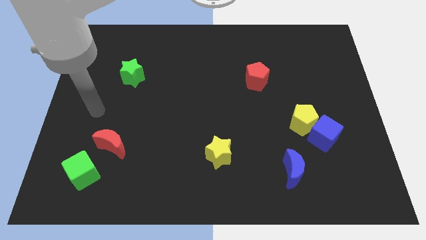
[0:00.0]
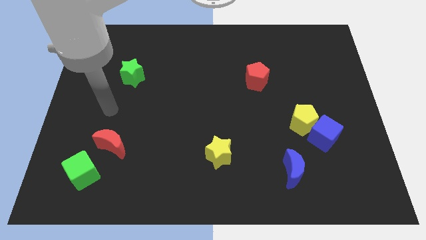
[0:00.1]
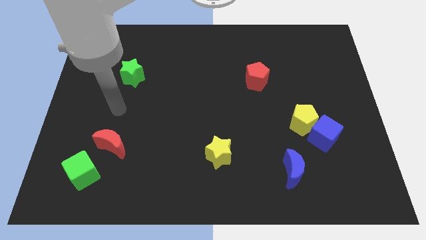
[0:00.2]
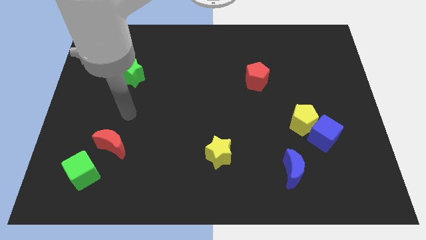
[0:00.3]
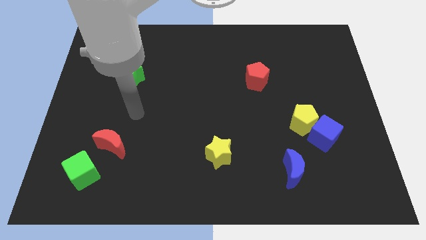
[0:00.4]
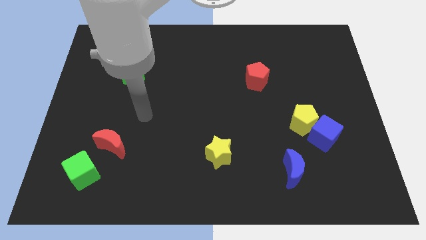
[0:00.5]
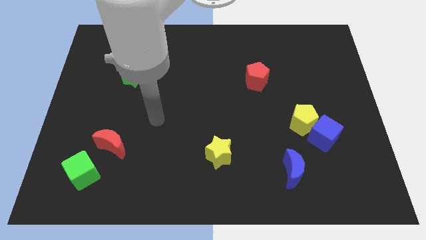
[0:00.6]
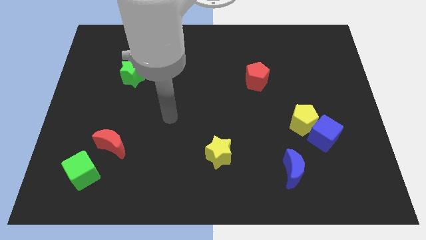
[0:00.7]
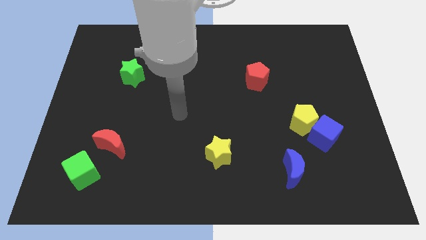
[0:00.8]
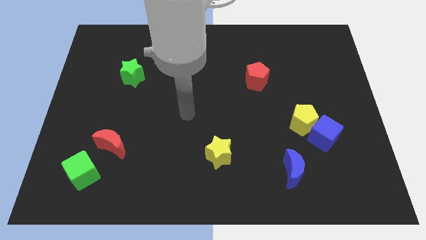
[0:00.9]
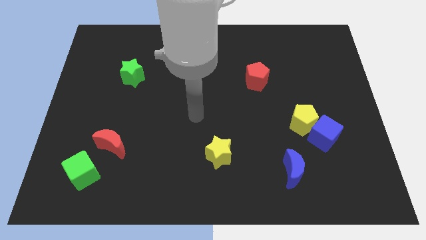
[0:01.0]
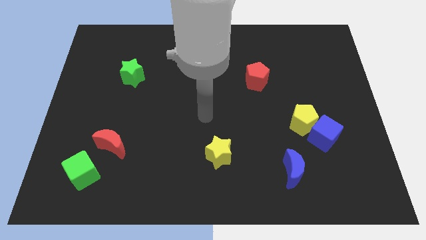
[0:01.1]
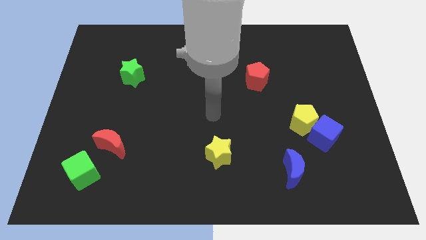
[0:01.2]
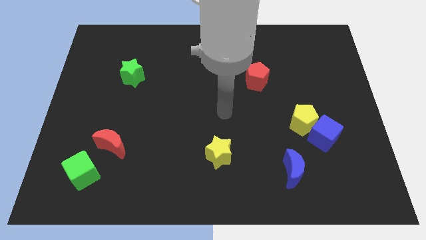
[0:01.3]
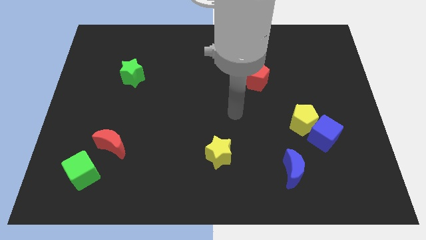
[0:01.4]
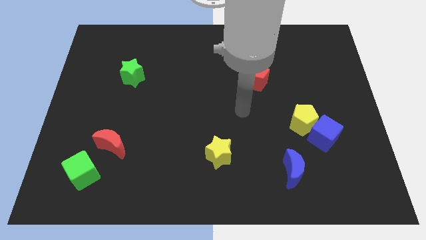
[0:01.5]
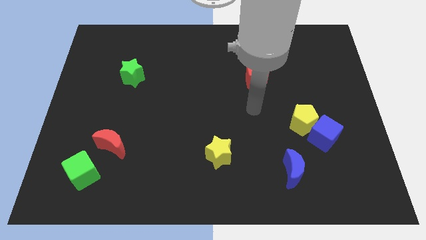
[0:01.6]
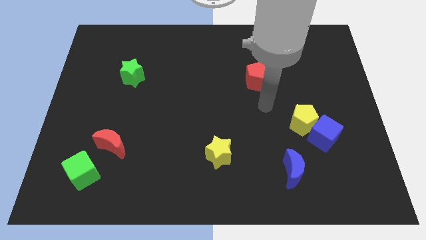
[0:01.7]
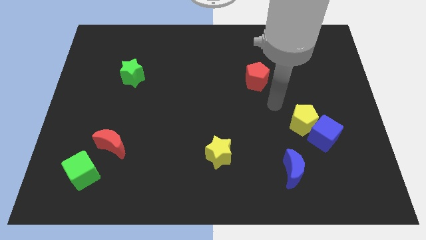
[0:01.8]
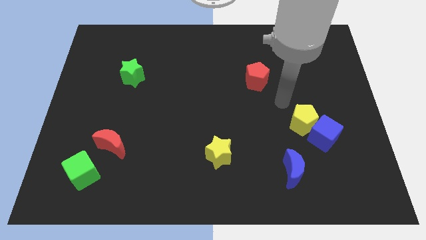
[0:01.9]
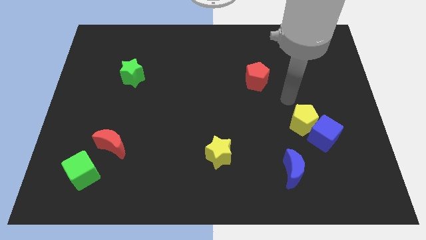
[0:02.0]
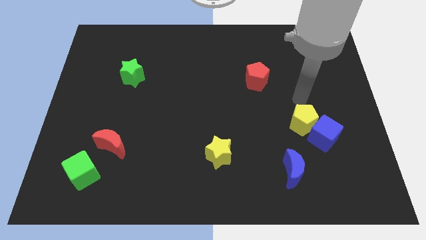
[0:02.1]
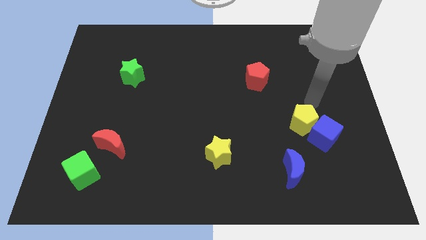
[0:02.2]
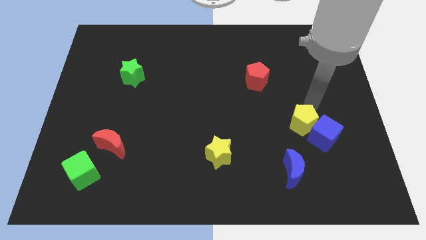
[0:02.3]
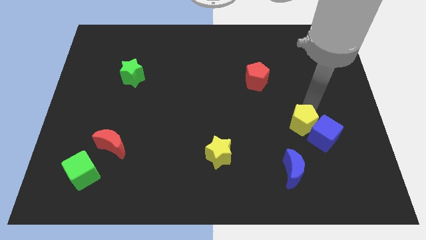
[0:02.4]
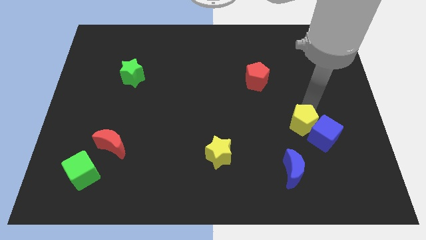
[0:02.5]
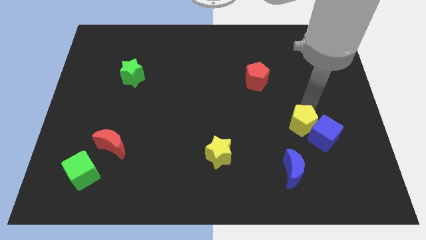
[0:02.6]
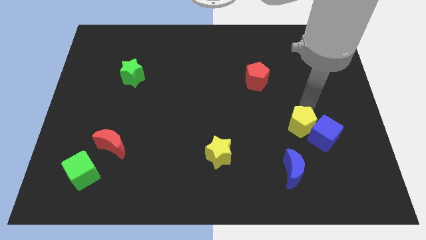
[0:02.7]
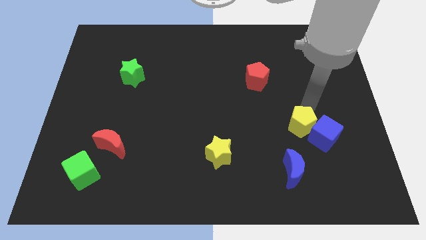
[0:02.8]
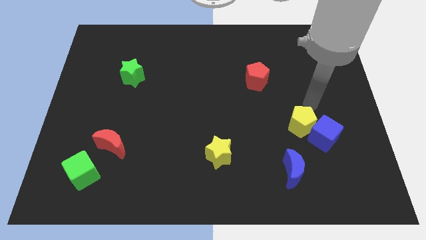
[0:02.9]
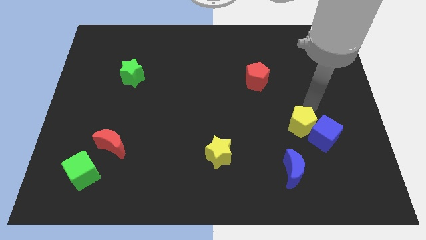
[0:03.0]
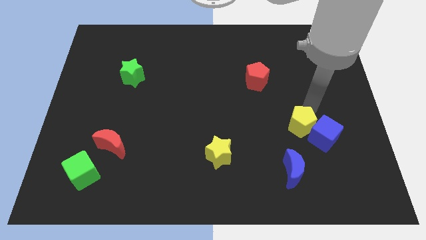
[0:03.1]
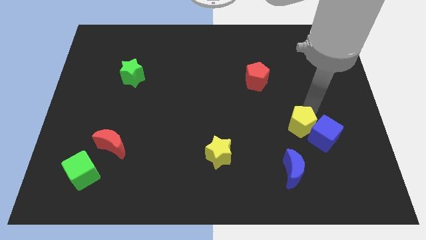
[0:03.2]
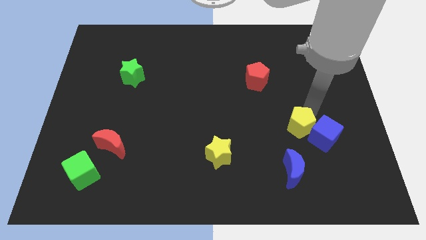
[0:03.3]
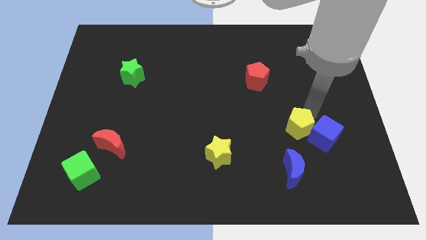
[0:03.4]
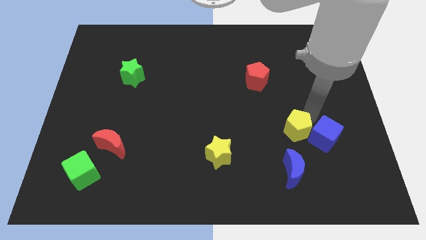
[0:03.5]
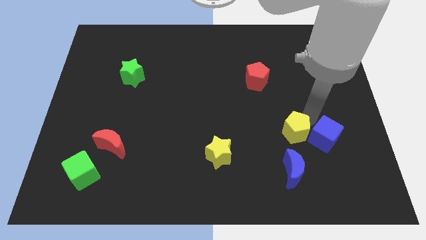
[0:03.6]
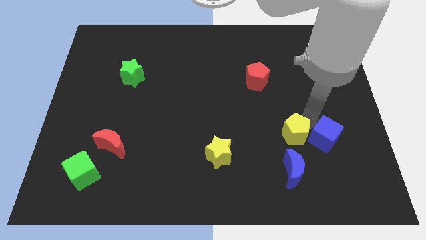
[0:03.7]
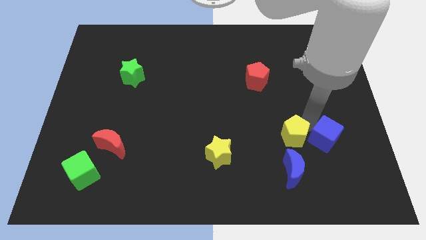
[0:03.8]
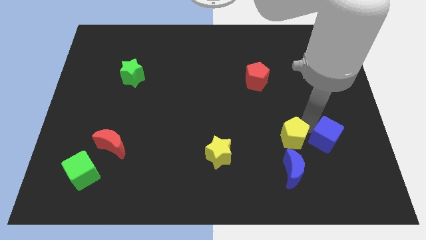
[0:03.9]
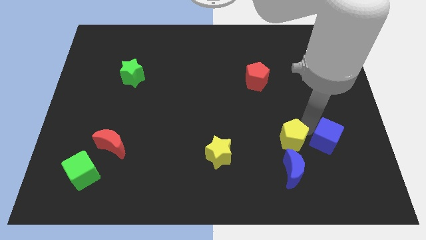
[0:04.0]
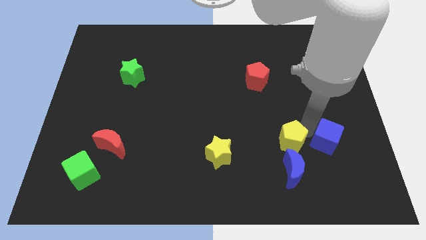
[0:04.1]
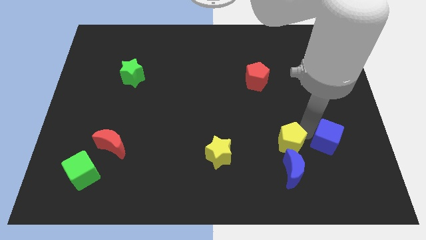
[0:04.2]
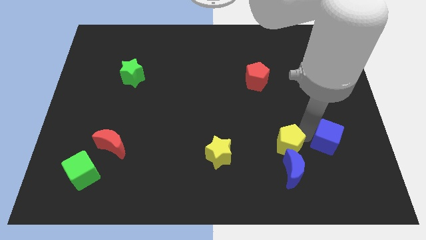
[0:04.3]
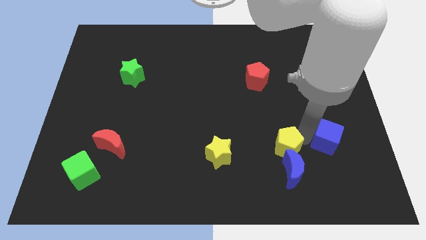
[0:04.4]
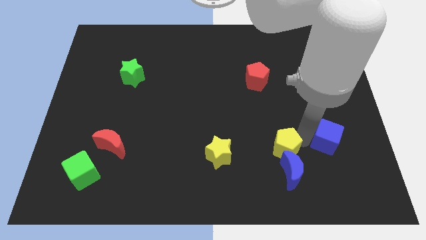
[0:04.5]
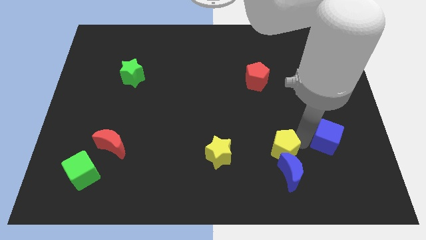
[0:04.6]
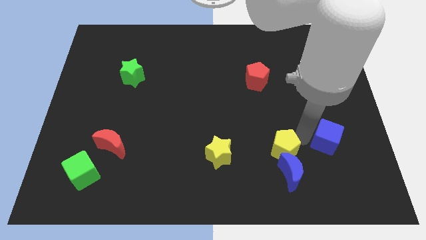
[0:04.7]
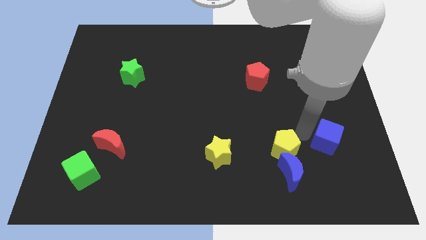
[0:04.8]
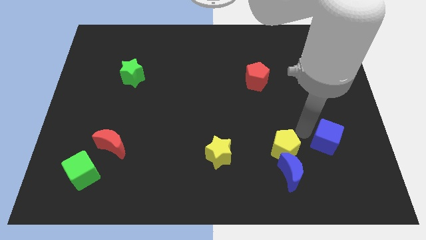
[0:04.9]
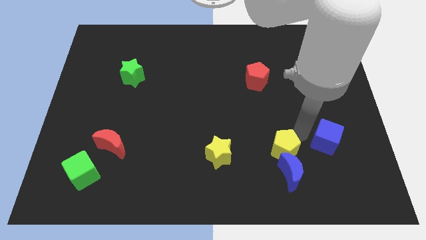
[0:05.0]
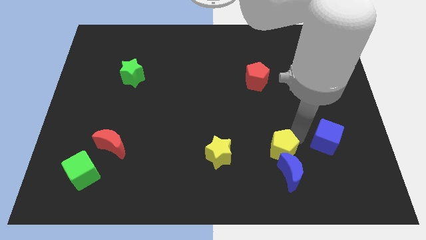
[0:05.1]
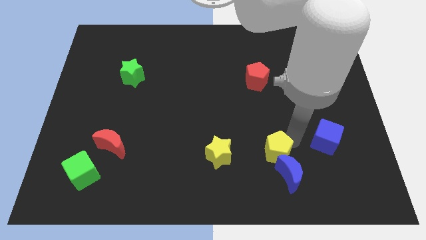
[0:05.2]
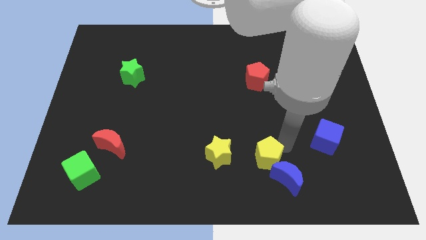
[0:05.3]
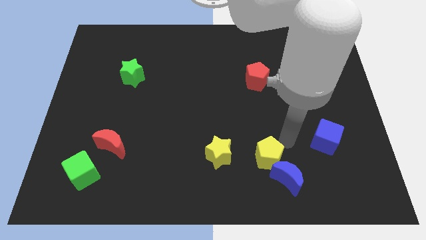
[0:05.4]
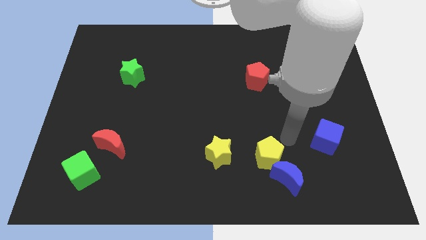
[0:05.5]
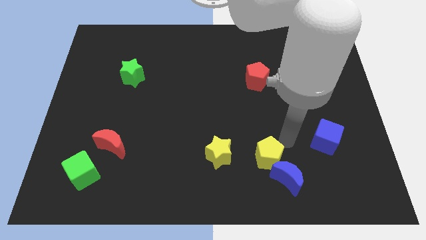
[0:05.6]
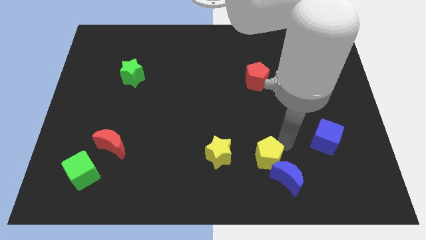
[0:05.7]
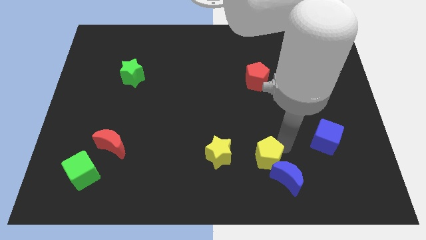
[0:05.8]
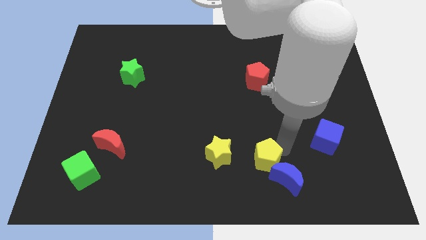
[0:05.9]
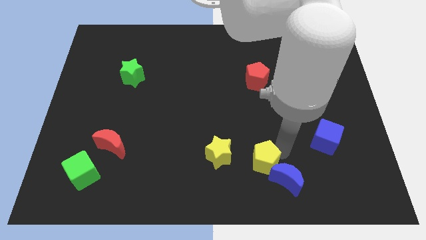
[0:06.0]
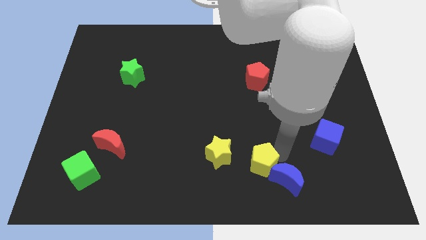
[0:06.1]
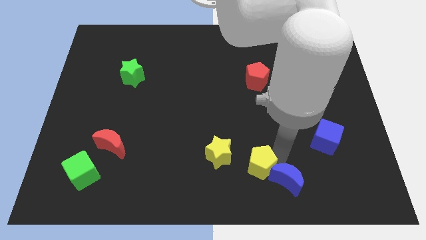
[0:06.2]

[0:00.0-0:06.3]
put the yellow pentagon to the bottom right side of the yellow star
